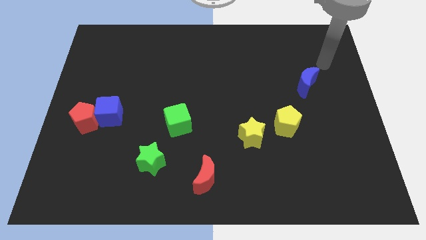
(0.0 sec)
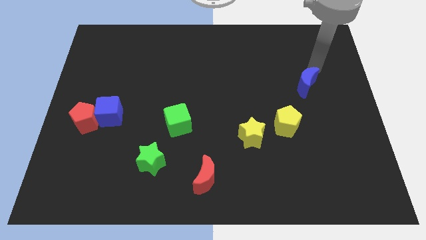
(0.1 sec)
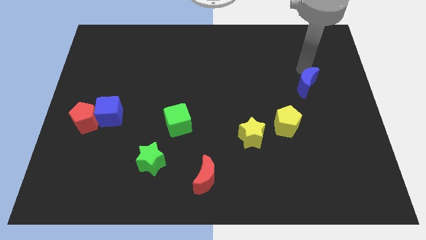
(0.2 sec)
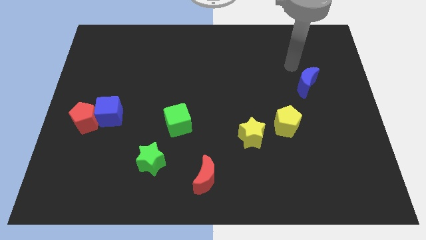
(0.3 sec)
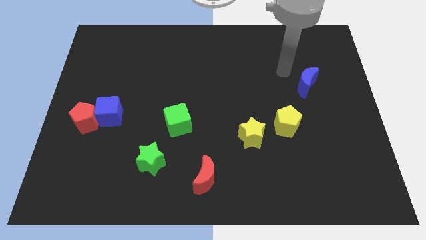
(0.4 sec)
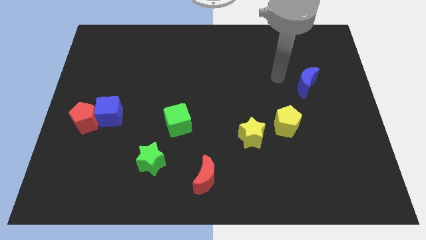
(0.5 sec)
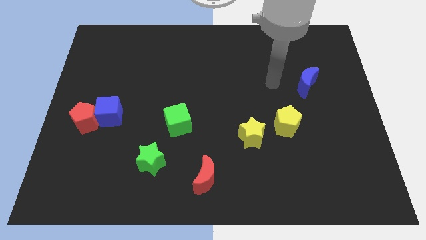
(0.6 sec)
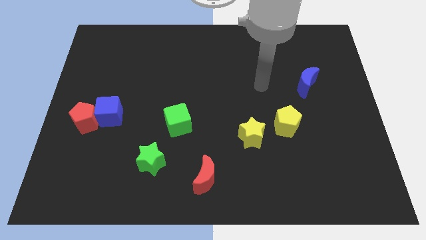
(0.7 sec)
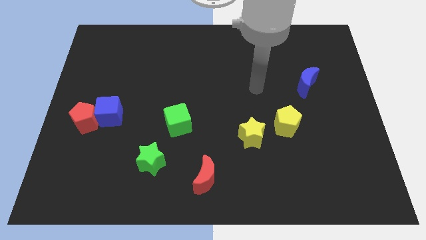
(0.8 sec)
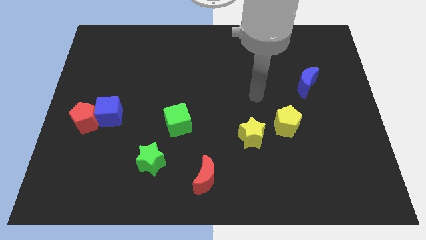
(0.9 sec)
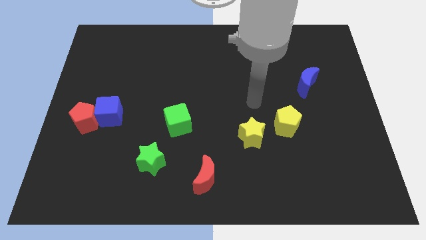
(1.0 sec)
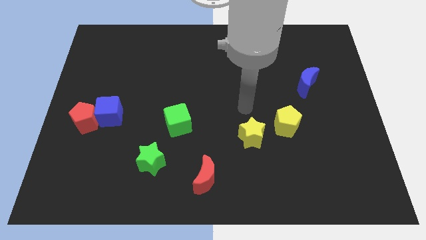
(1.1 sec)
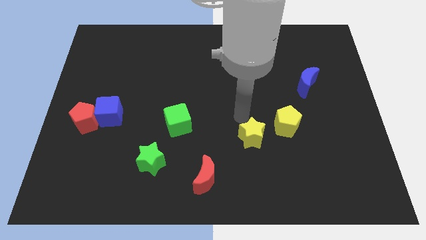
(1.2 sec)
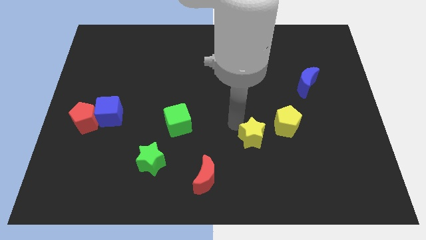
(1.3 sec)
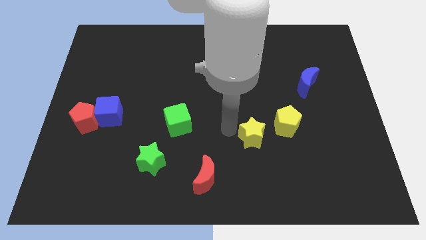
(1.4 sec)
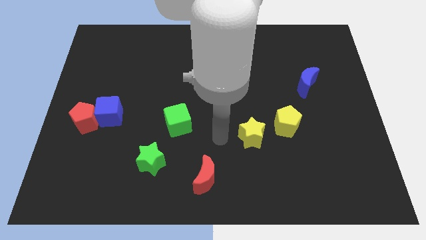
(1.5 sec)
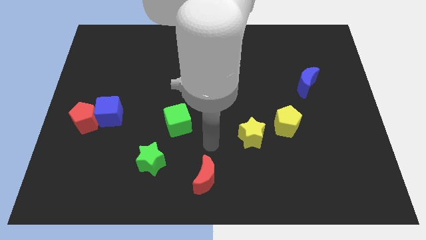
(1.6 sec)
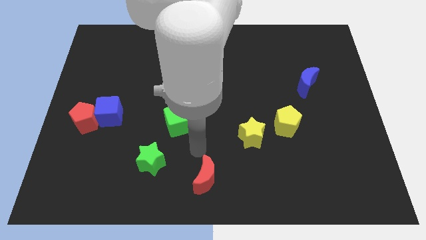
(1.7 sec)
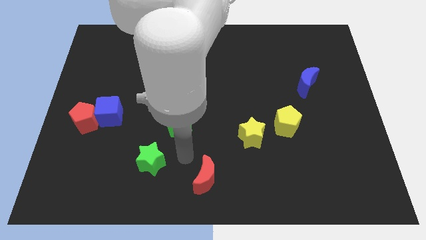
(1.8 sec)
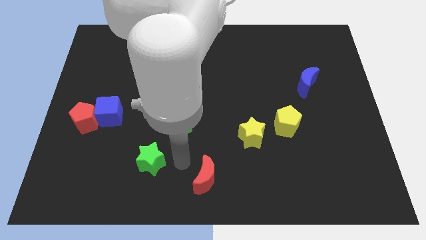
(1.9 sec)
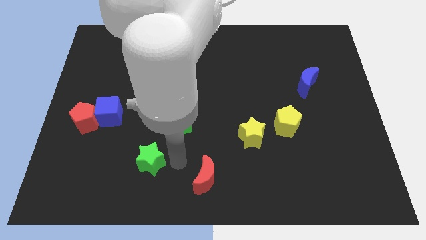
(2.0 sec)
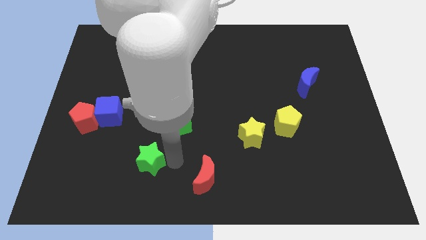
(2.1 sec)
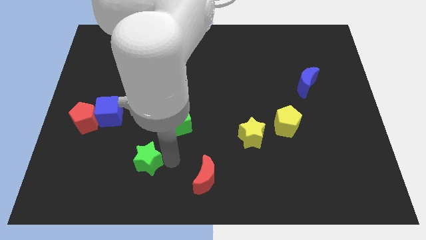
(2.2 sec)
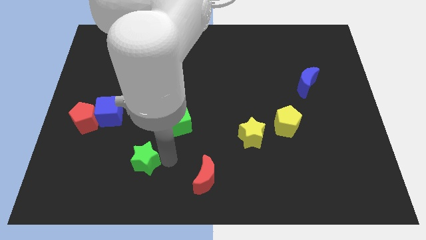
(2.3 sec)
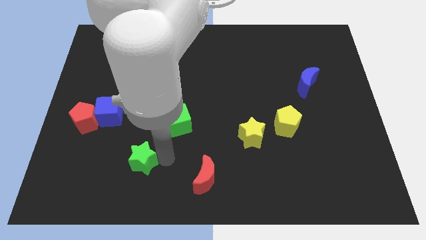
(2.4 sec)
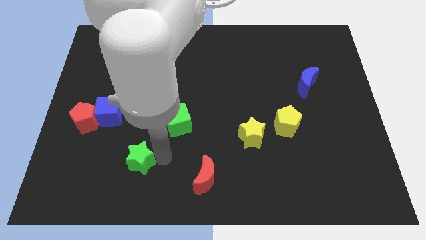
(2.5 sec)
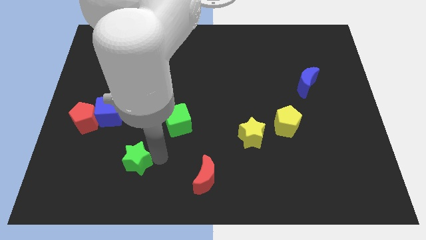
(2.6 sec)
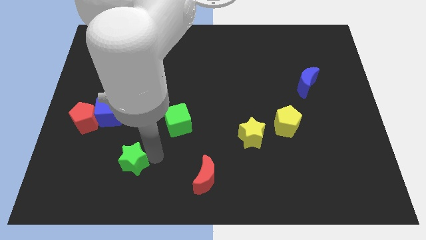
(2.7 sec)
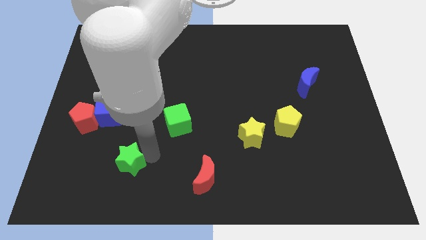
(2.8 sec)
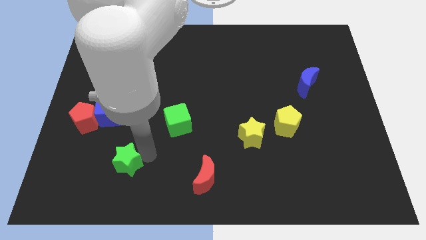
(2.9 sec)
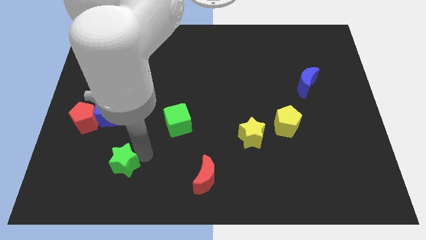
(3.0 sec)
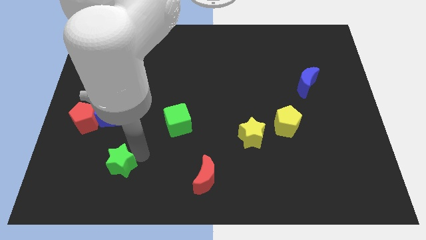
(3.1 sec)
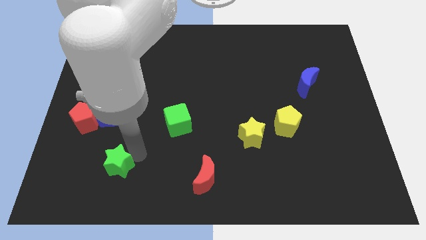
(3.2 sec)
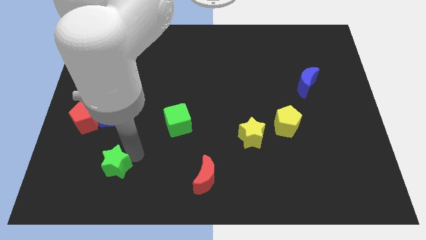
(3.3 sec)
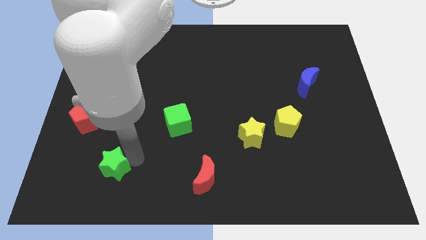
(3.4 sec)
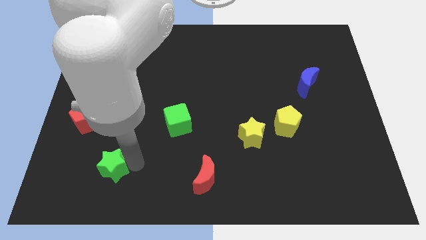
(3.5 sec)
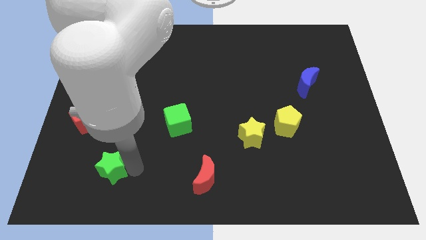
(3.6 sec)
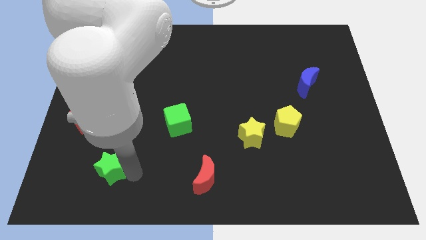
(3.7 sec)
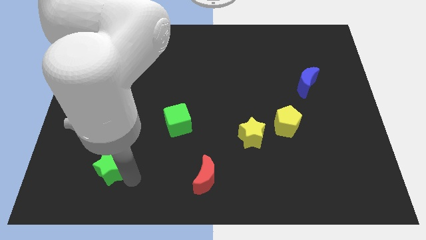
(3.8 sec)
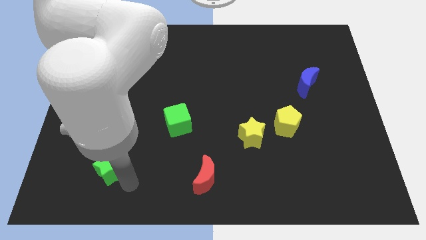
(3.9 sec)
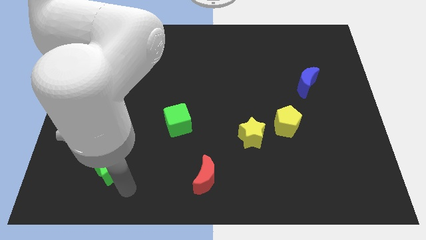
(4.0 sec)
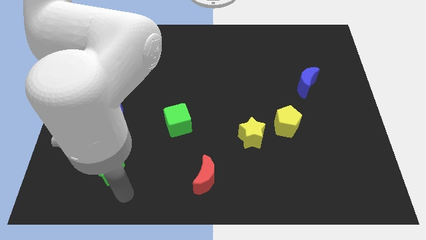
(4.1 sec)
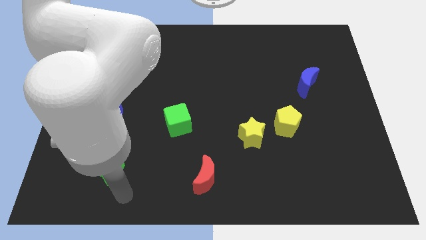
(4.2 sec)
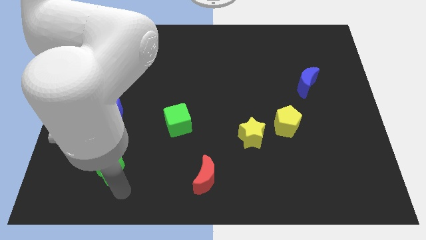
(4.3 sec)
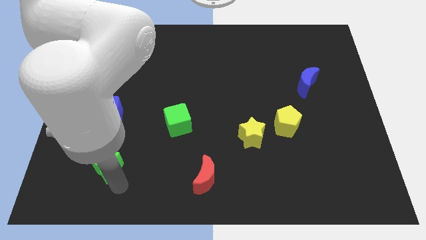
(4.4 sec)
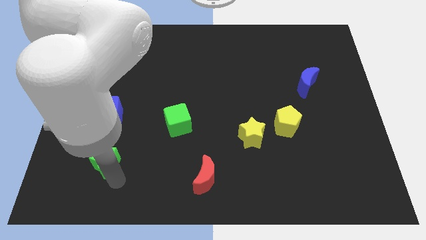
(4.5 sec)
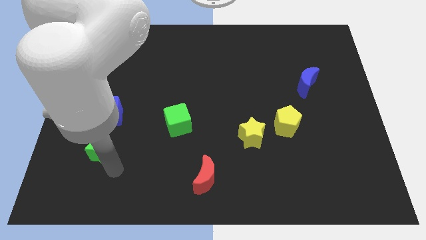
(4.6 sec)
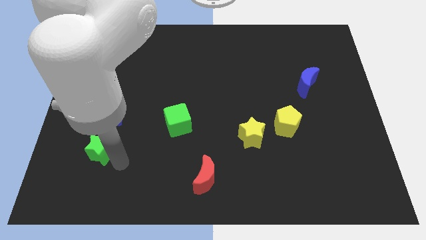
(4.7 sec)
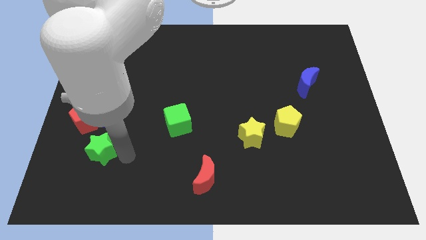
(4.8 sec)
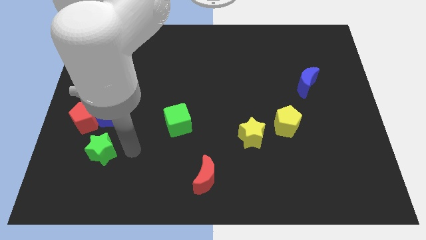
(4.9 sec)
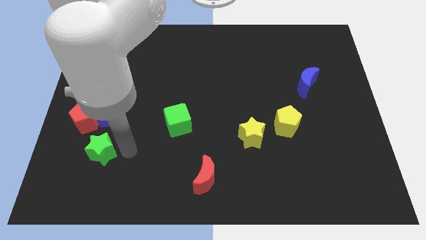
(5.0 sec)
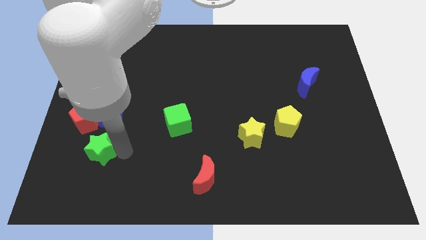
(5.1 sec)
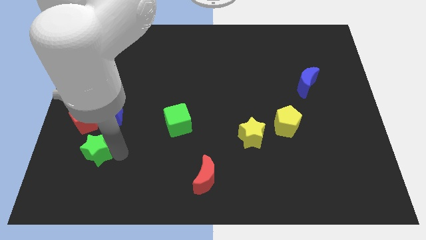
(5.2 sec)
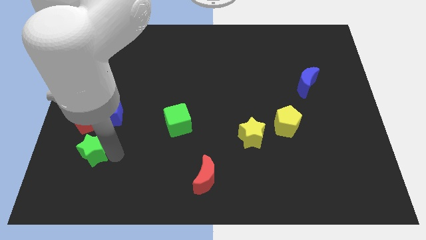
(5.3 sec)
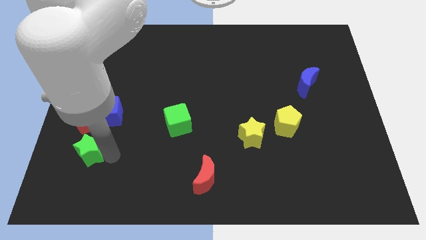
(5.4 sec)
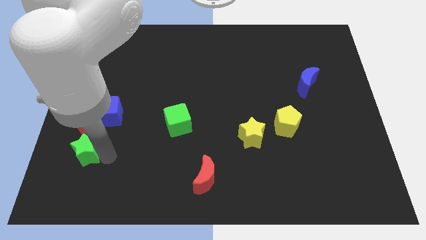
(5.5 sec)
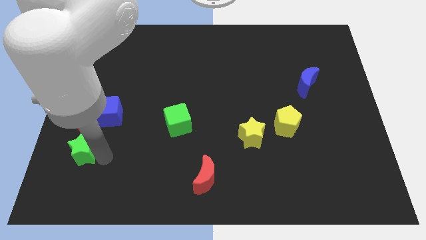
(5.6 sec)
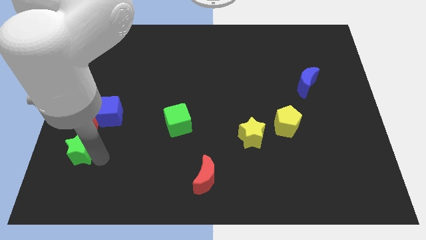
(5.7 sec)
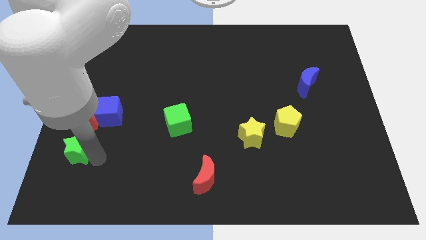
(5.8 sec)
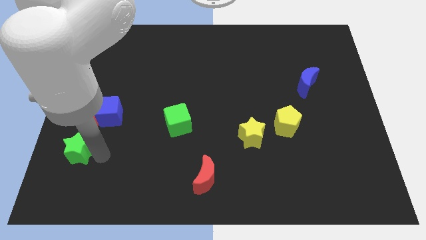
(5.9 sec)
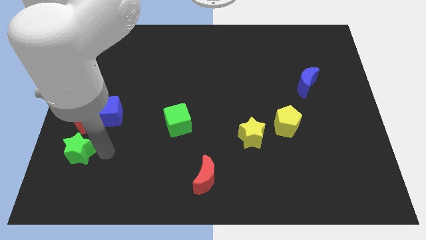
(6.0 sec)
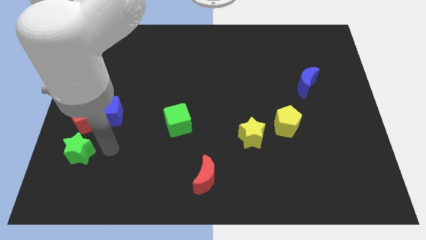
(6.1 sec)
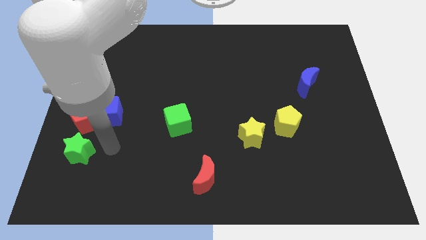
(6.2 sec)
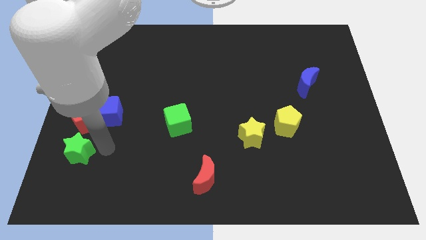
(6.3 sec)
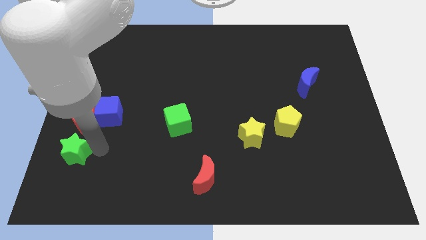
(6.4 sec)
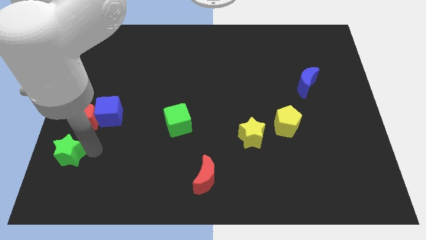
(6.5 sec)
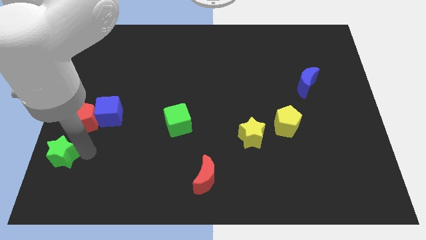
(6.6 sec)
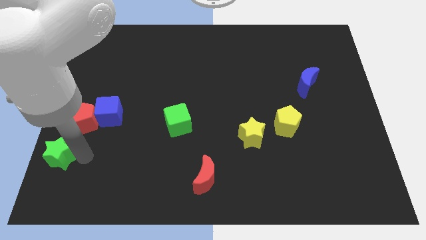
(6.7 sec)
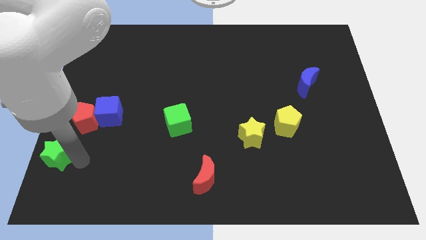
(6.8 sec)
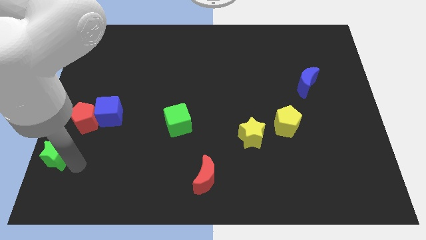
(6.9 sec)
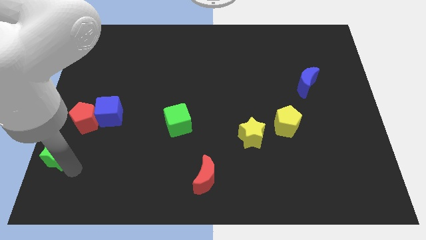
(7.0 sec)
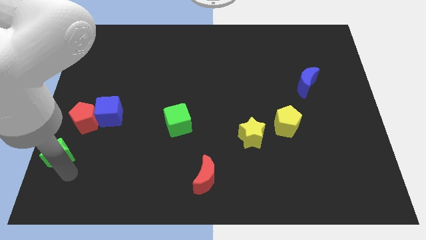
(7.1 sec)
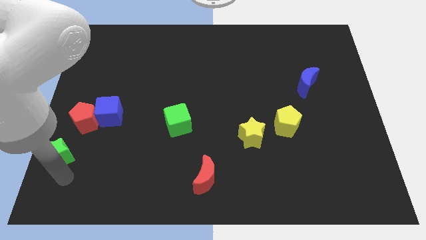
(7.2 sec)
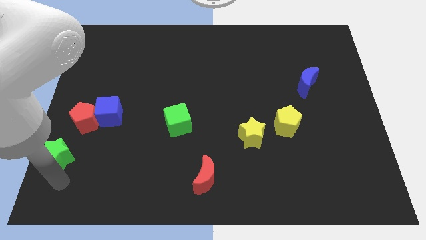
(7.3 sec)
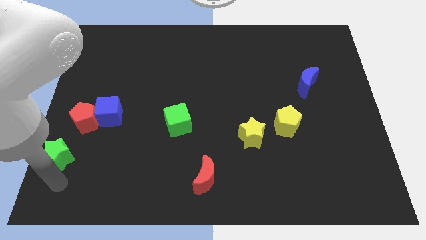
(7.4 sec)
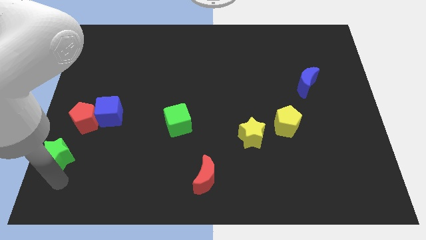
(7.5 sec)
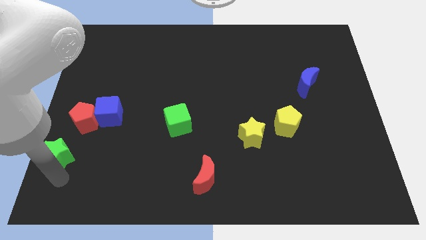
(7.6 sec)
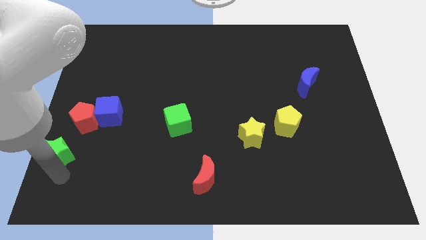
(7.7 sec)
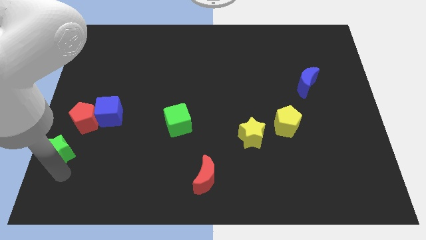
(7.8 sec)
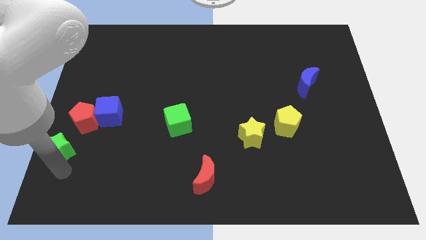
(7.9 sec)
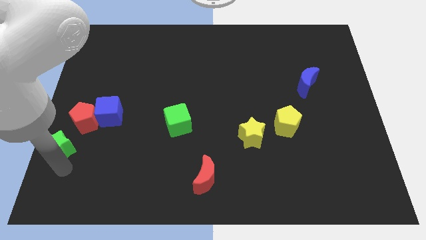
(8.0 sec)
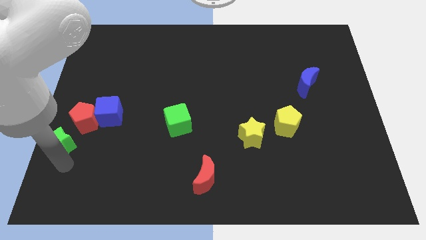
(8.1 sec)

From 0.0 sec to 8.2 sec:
put the green star to the center left
